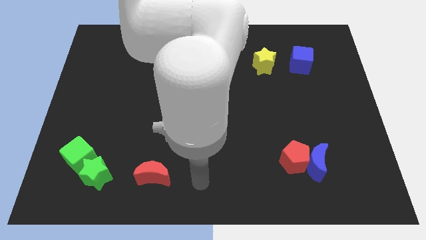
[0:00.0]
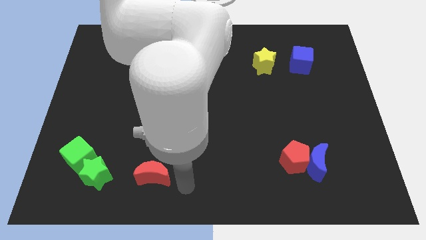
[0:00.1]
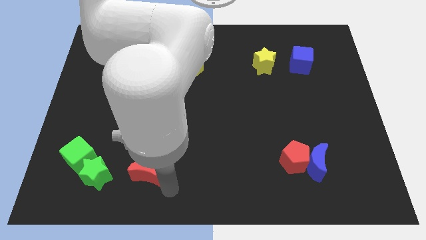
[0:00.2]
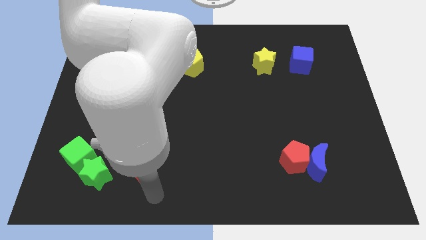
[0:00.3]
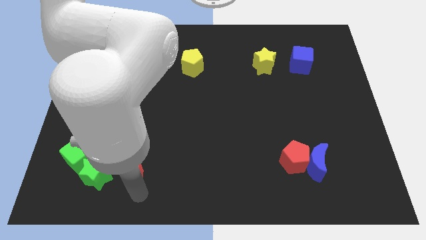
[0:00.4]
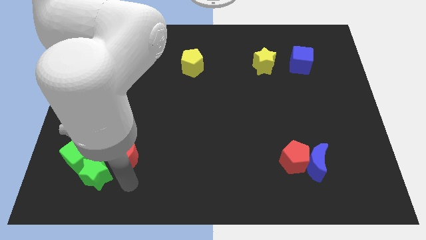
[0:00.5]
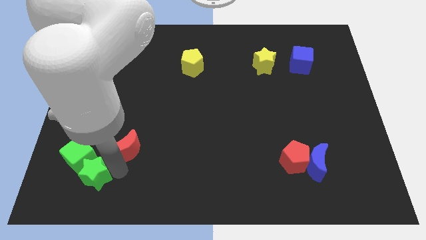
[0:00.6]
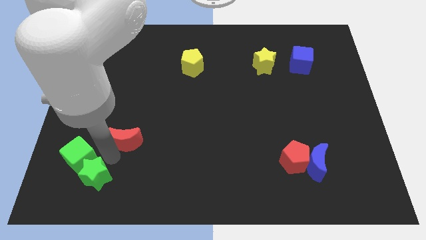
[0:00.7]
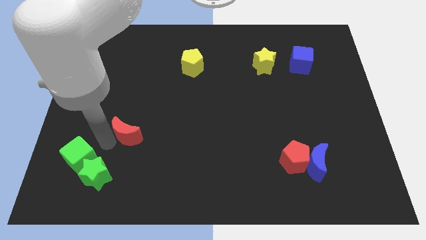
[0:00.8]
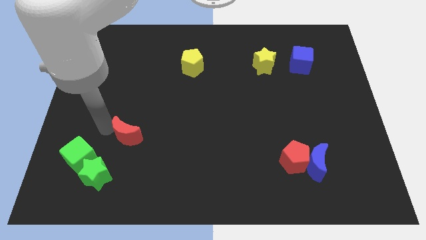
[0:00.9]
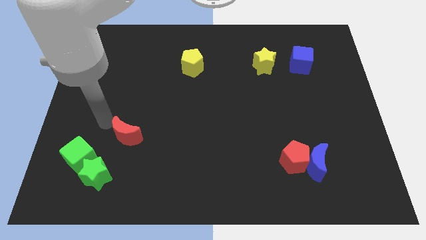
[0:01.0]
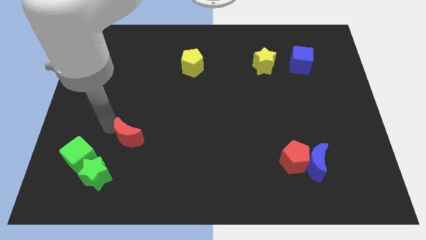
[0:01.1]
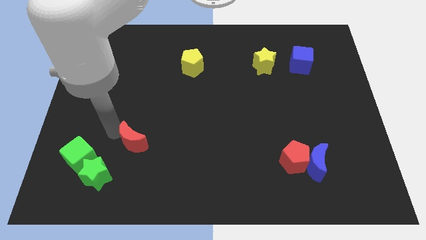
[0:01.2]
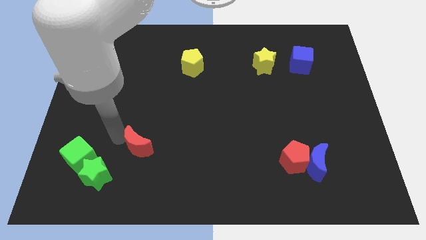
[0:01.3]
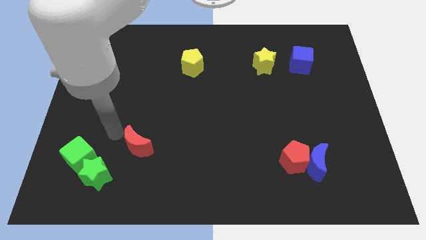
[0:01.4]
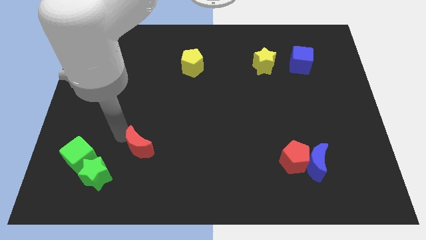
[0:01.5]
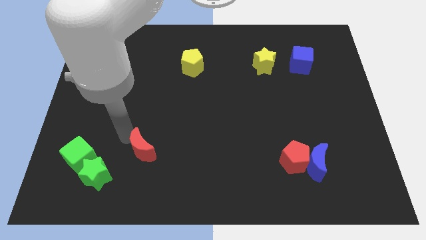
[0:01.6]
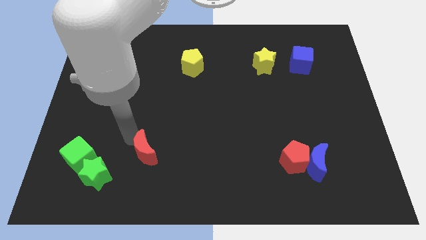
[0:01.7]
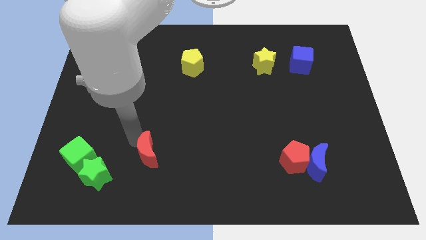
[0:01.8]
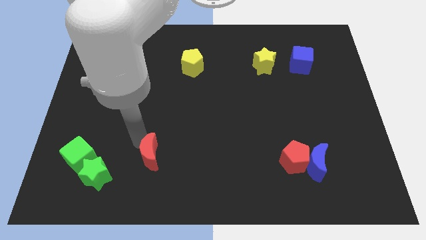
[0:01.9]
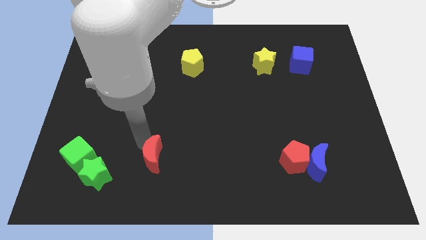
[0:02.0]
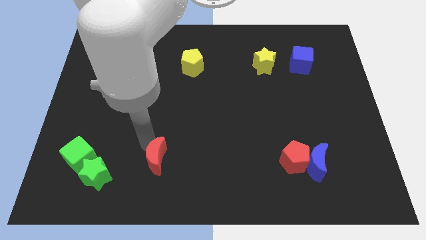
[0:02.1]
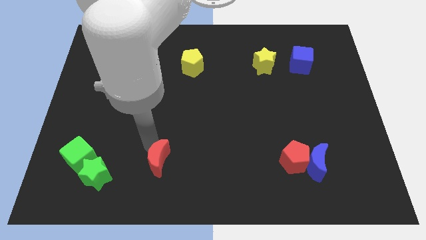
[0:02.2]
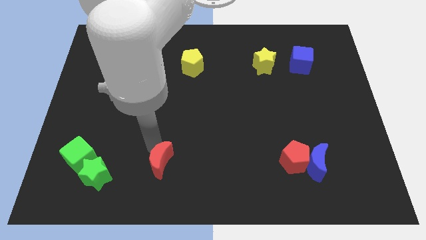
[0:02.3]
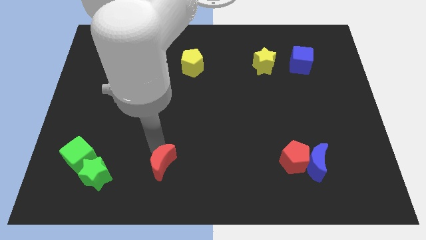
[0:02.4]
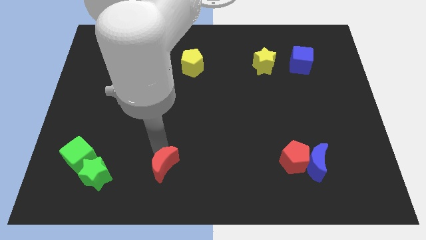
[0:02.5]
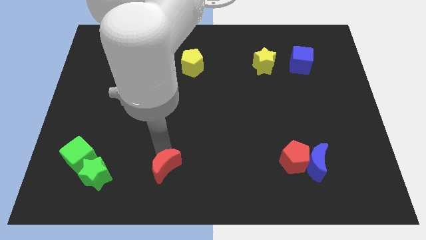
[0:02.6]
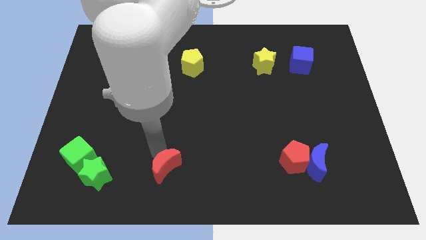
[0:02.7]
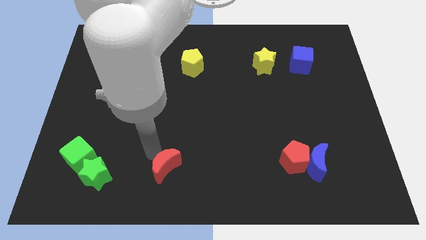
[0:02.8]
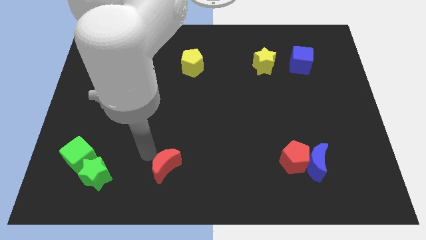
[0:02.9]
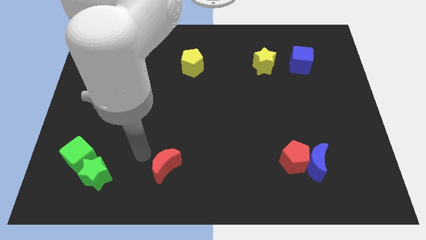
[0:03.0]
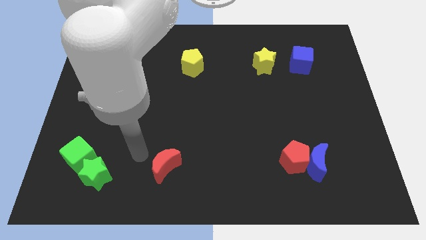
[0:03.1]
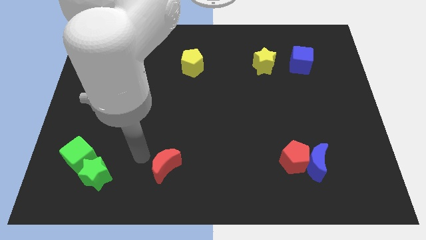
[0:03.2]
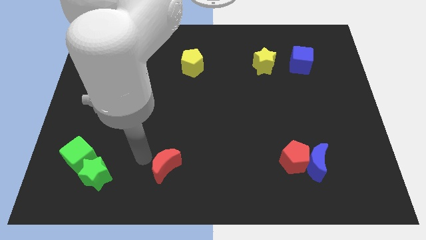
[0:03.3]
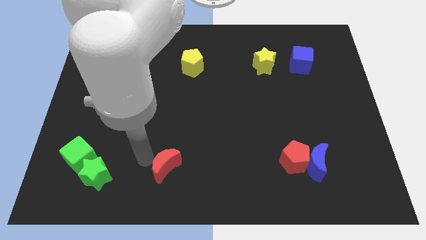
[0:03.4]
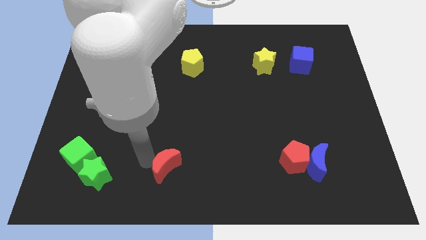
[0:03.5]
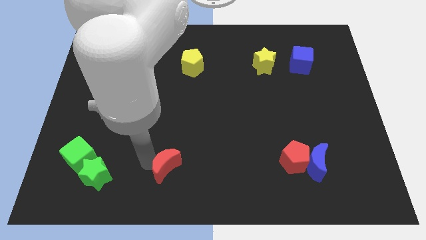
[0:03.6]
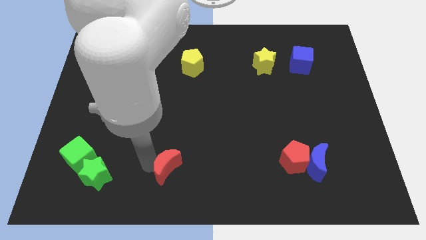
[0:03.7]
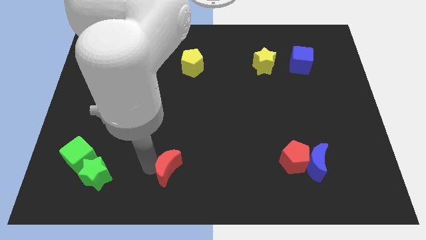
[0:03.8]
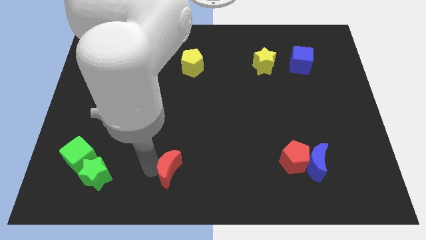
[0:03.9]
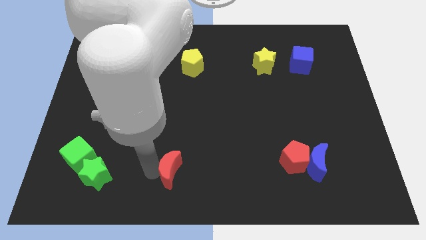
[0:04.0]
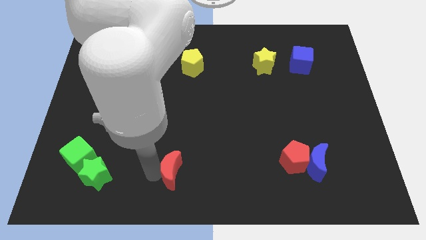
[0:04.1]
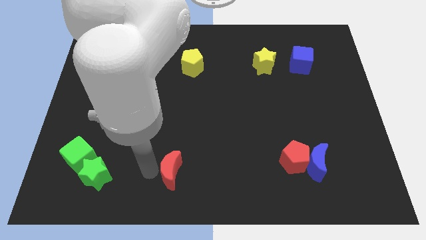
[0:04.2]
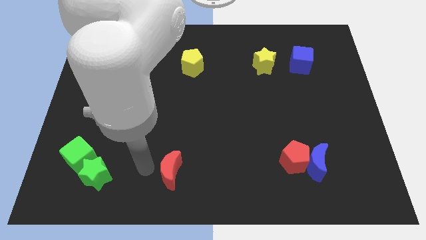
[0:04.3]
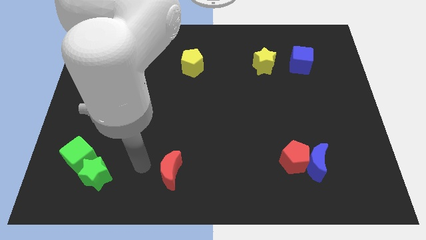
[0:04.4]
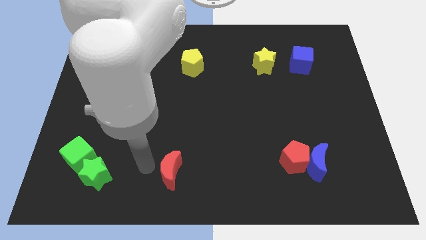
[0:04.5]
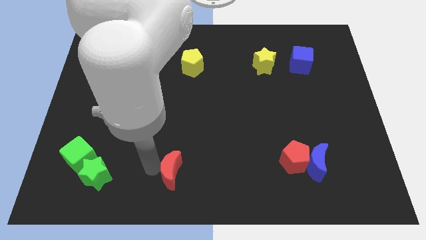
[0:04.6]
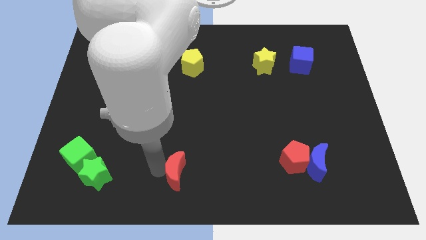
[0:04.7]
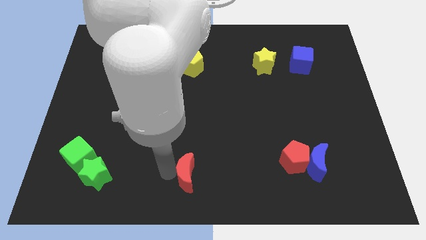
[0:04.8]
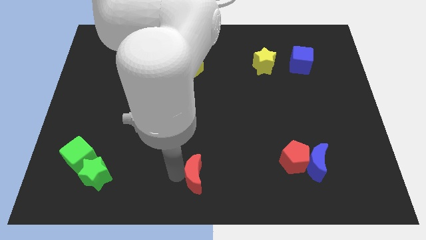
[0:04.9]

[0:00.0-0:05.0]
slide the red moon slightly to the right

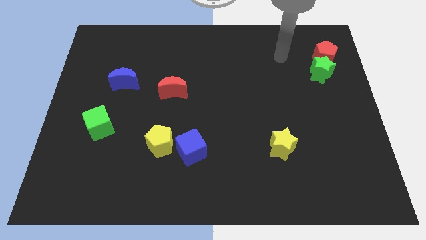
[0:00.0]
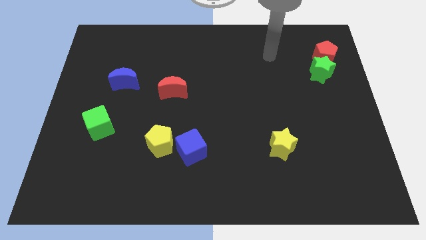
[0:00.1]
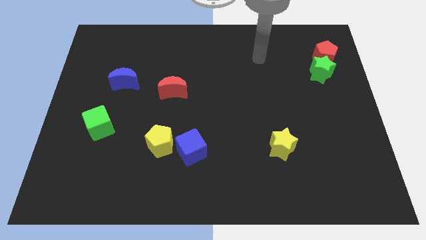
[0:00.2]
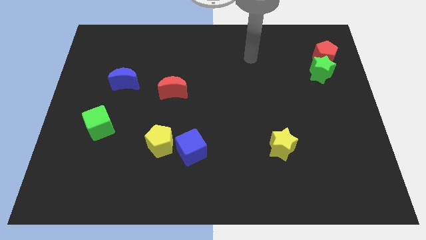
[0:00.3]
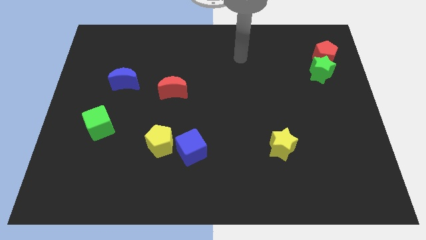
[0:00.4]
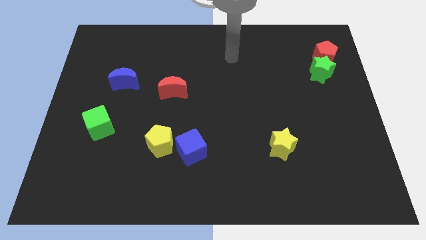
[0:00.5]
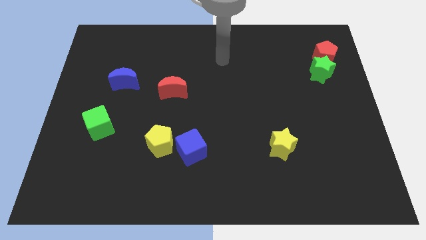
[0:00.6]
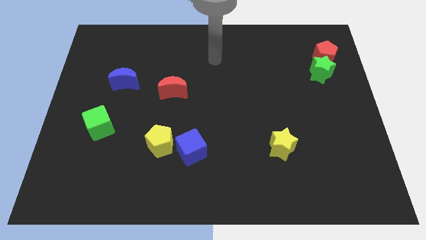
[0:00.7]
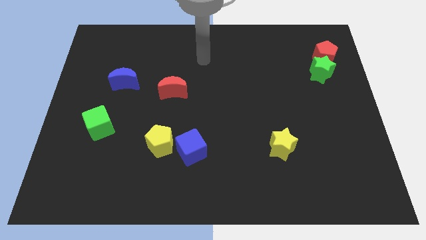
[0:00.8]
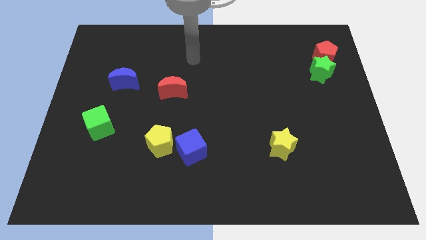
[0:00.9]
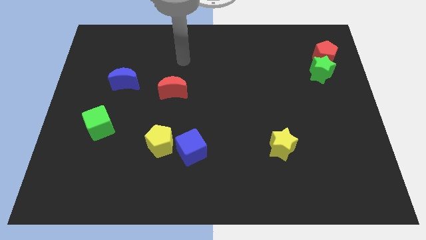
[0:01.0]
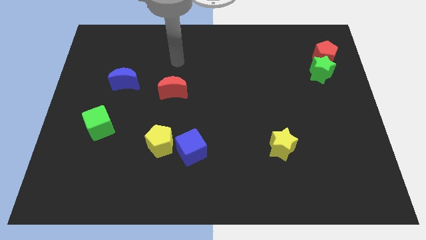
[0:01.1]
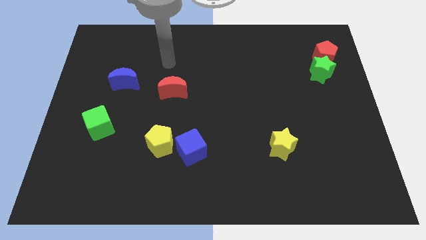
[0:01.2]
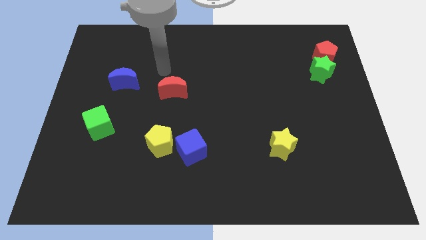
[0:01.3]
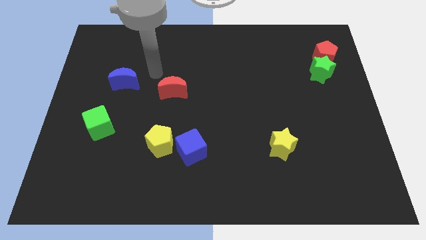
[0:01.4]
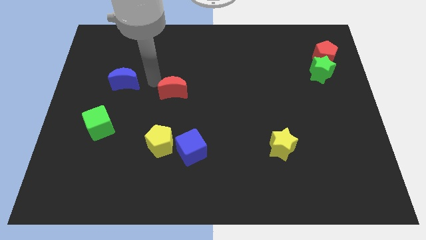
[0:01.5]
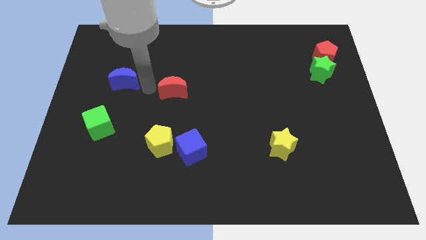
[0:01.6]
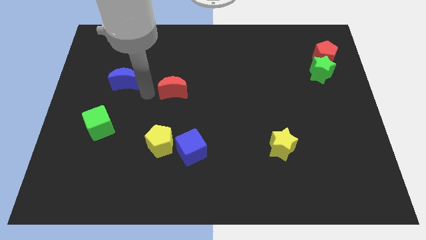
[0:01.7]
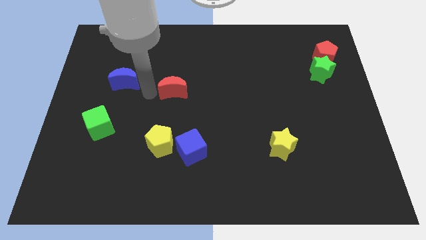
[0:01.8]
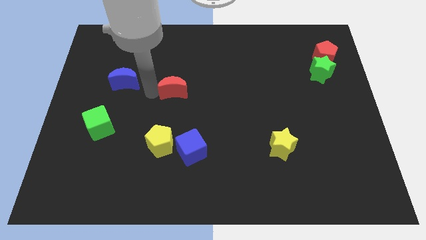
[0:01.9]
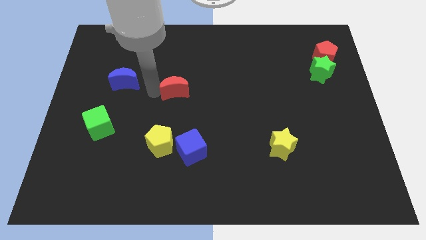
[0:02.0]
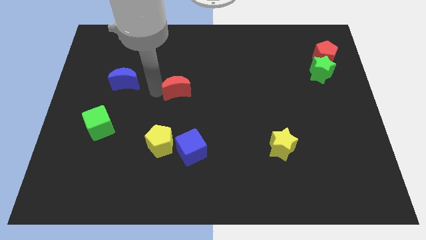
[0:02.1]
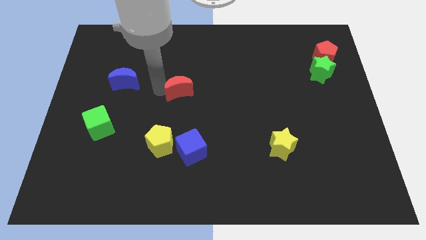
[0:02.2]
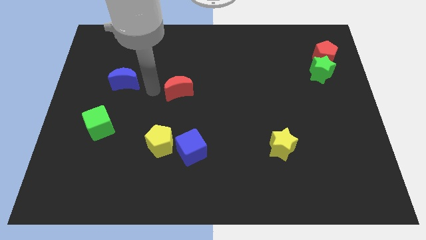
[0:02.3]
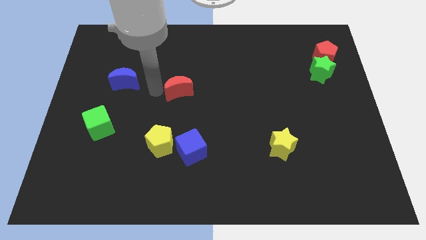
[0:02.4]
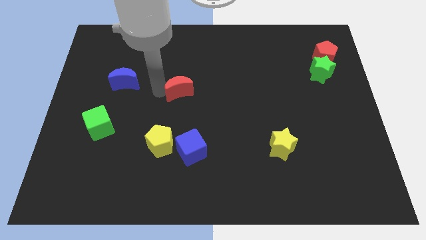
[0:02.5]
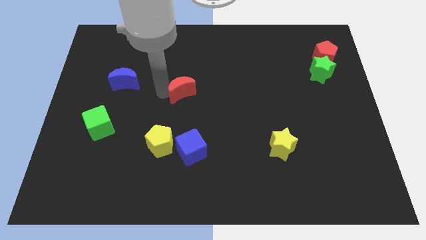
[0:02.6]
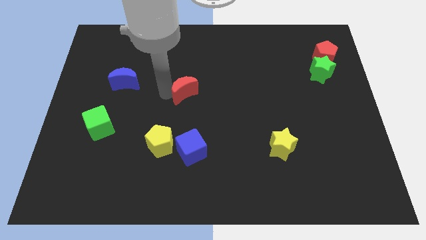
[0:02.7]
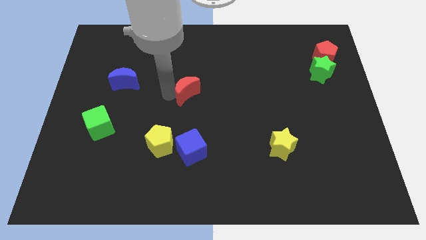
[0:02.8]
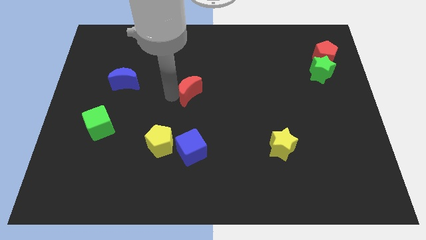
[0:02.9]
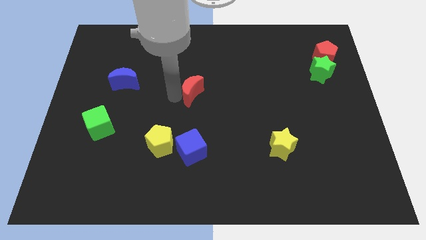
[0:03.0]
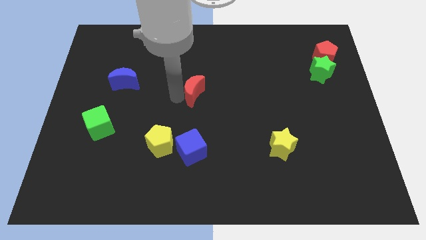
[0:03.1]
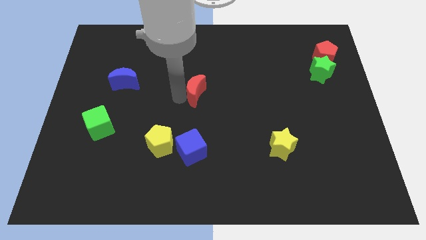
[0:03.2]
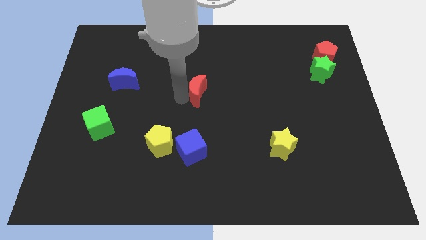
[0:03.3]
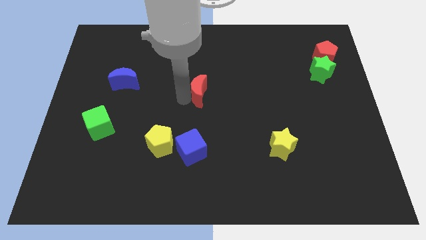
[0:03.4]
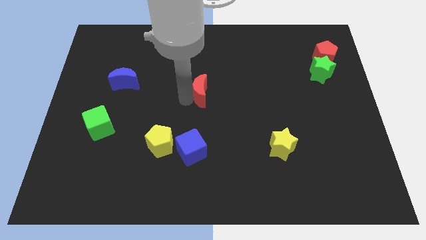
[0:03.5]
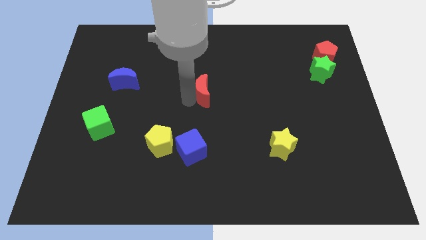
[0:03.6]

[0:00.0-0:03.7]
slide the red moon a little bit right
